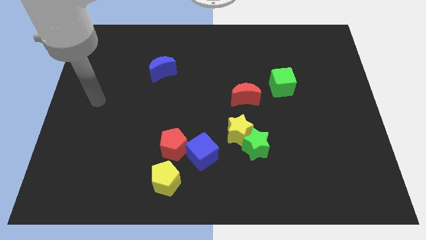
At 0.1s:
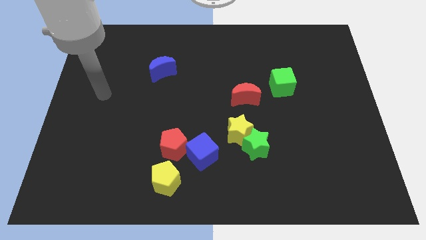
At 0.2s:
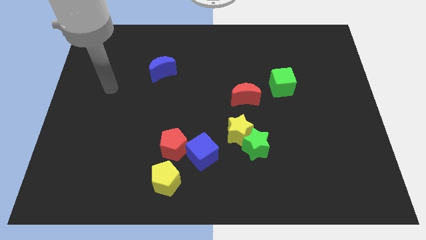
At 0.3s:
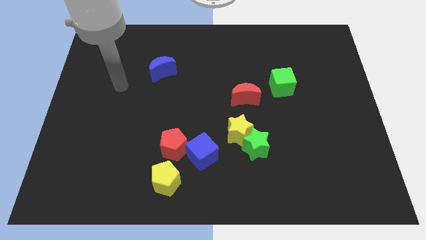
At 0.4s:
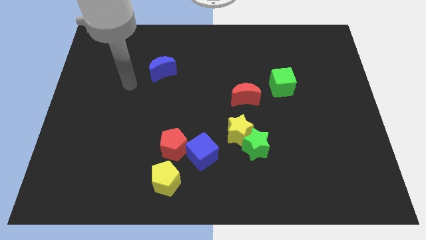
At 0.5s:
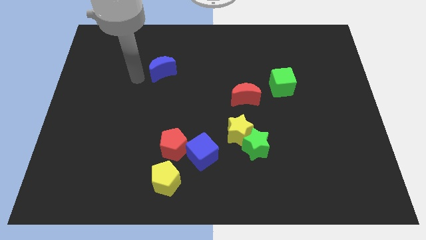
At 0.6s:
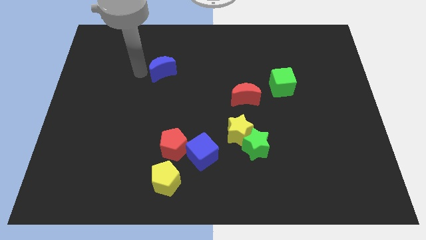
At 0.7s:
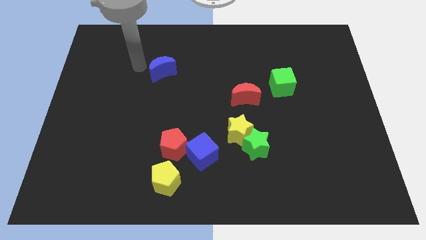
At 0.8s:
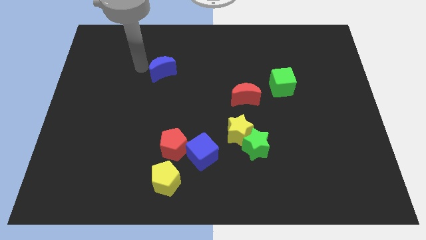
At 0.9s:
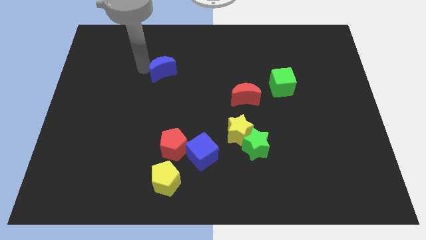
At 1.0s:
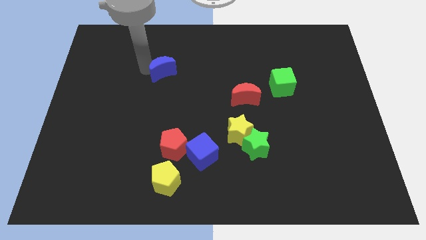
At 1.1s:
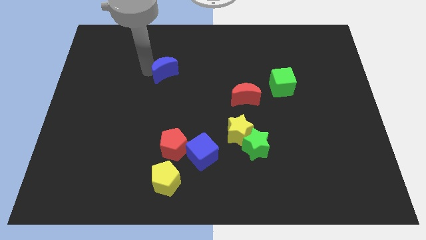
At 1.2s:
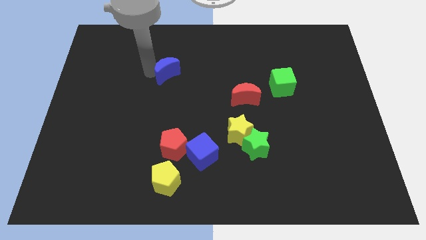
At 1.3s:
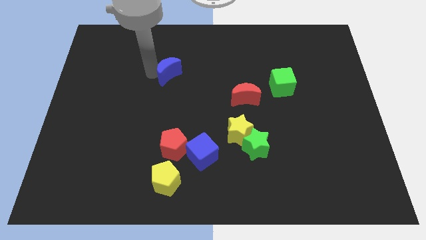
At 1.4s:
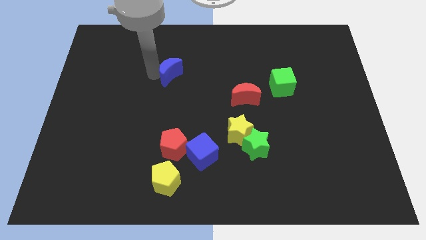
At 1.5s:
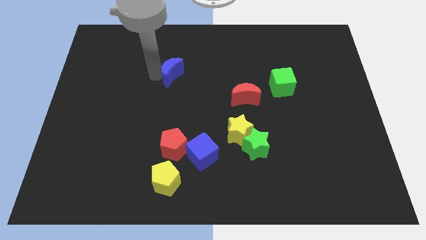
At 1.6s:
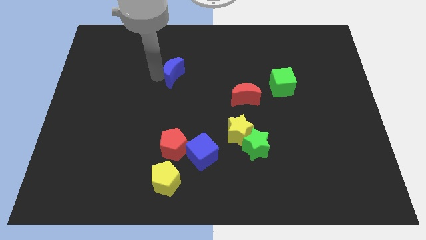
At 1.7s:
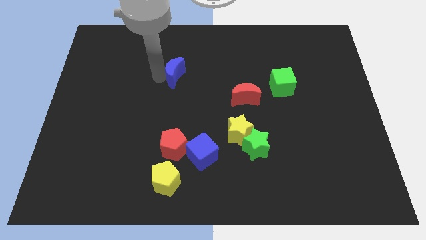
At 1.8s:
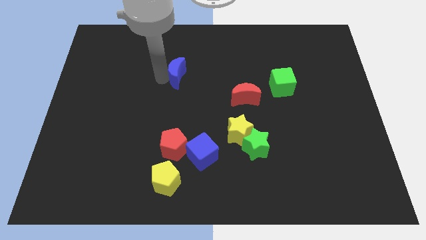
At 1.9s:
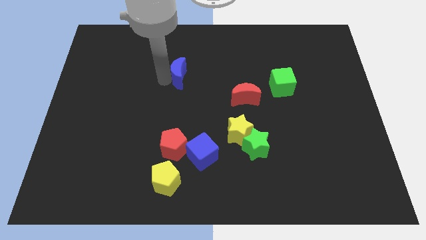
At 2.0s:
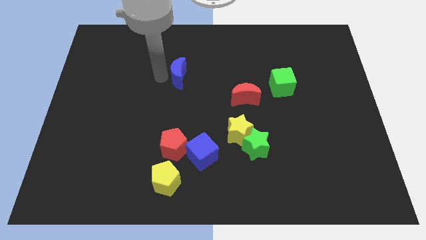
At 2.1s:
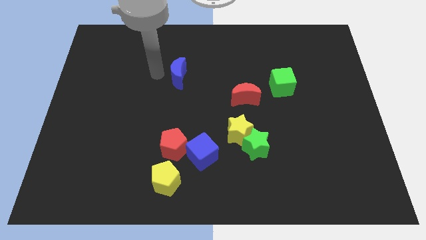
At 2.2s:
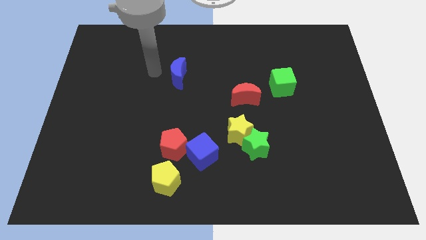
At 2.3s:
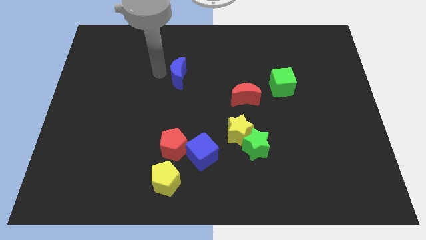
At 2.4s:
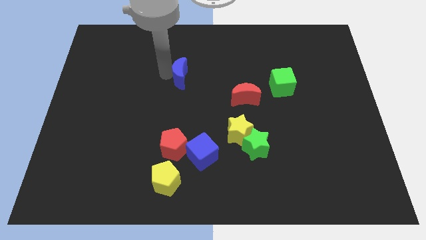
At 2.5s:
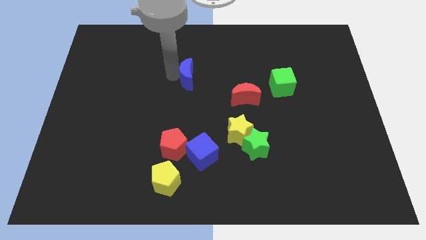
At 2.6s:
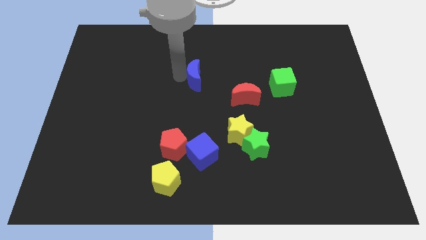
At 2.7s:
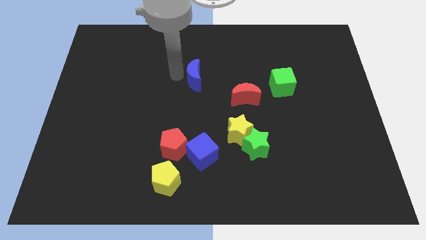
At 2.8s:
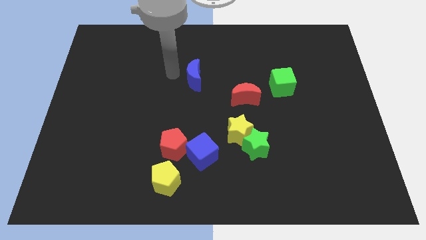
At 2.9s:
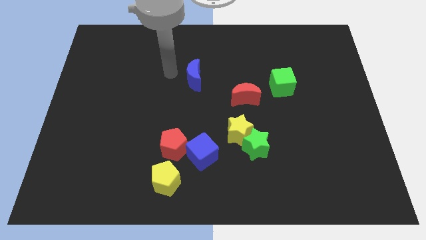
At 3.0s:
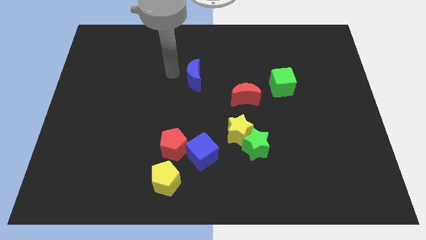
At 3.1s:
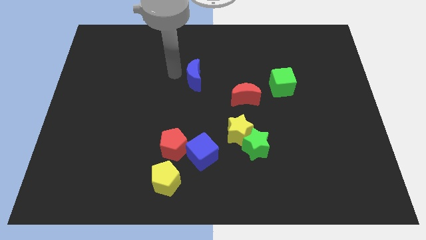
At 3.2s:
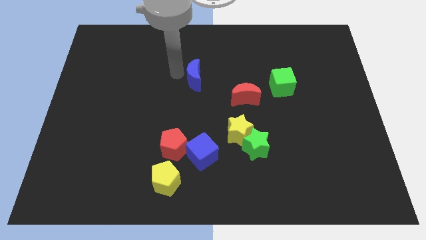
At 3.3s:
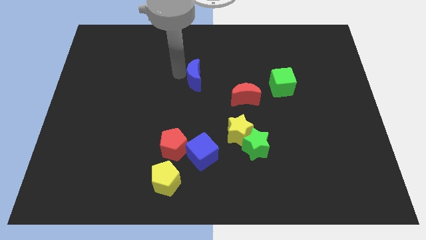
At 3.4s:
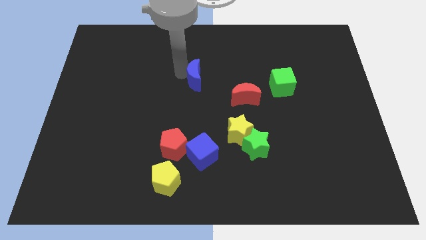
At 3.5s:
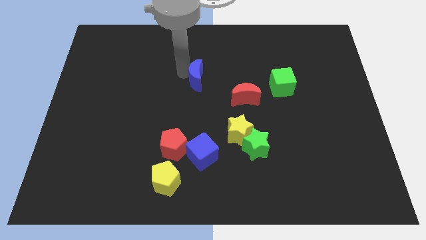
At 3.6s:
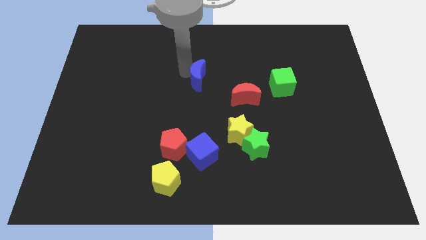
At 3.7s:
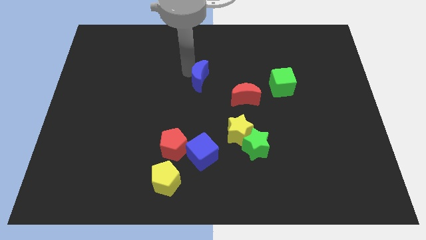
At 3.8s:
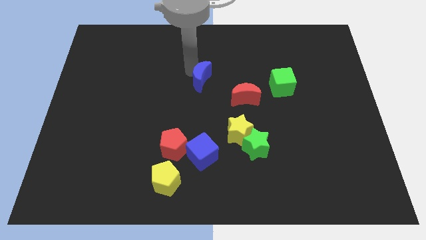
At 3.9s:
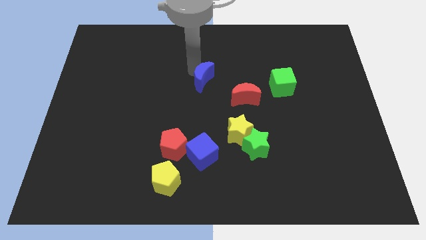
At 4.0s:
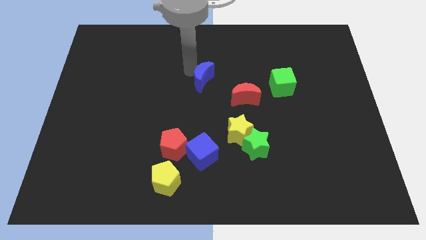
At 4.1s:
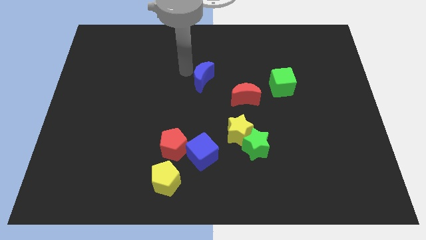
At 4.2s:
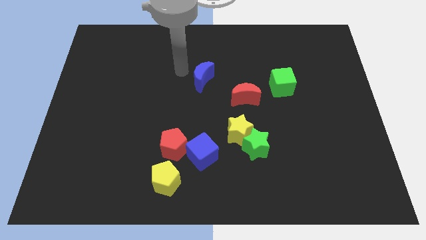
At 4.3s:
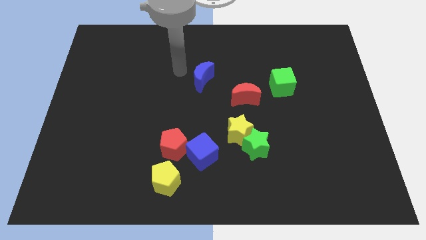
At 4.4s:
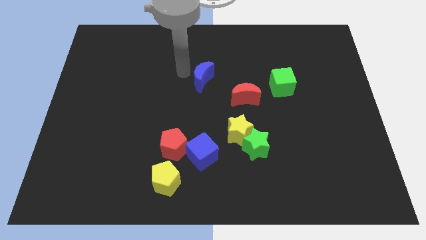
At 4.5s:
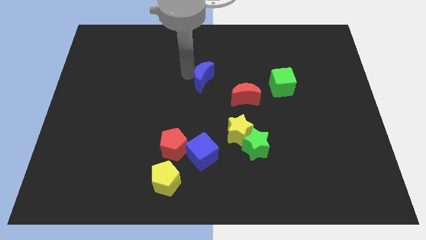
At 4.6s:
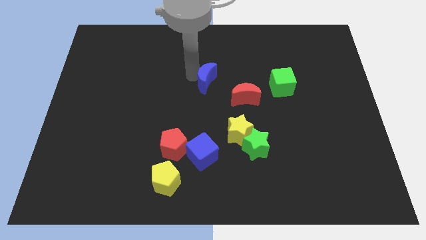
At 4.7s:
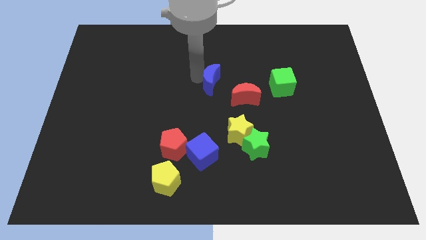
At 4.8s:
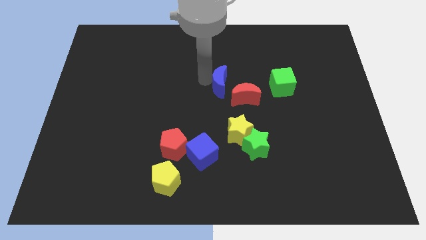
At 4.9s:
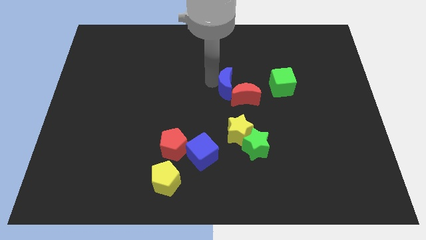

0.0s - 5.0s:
move the blue moon towards the red moon

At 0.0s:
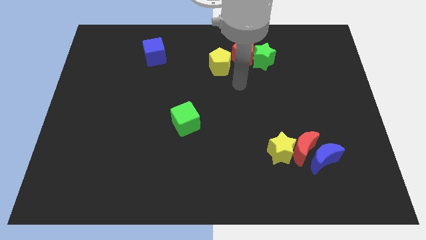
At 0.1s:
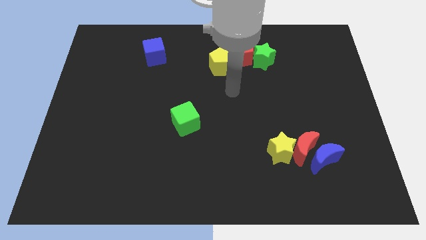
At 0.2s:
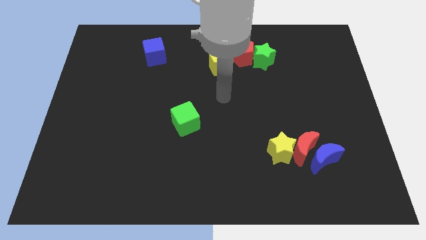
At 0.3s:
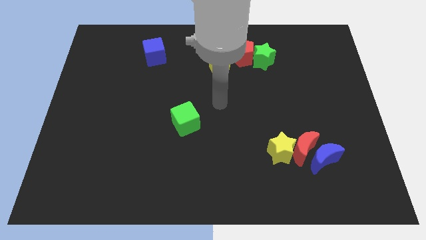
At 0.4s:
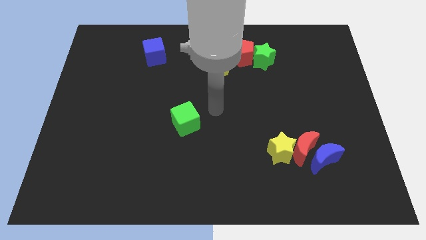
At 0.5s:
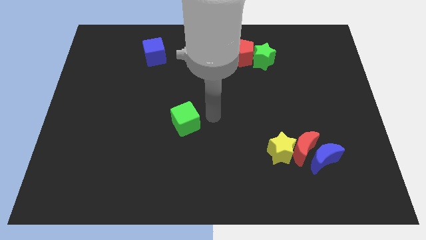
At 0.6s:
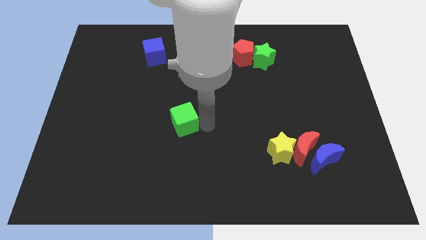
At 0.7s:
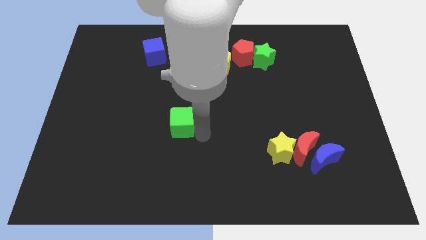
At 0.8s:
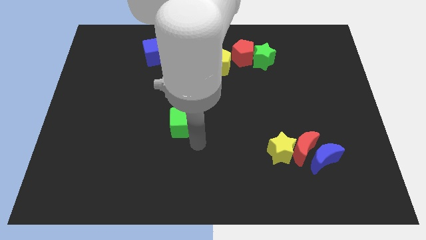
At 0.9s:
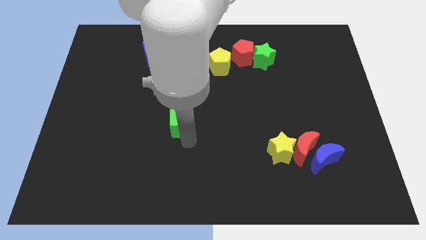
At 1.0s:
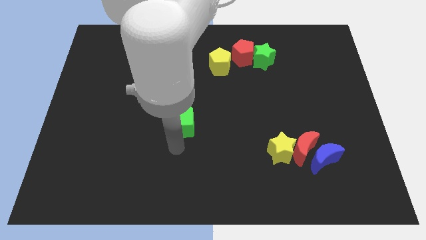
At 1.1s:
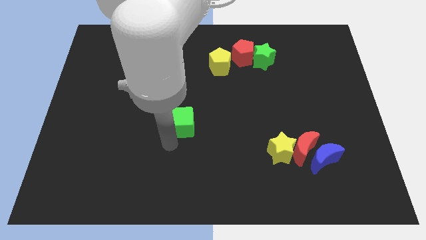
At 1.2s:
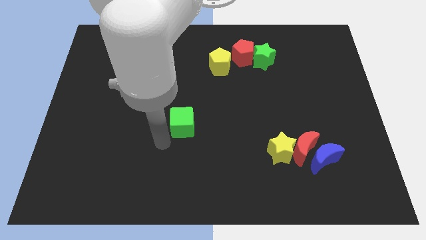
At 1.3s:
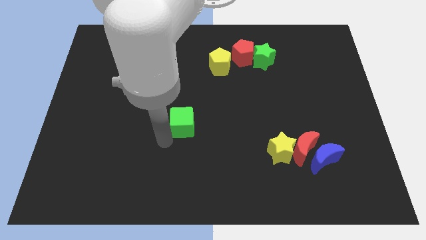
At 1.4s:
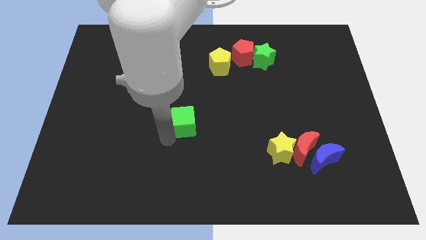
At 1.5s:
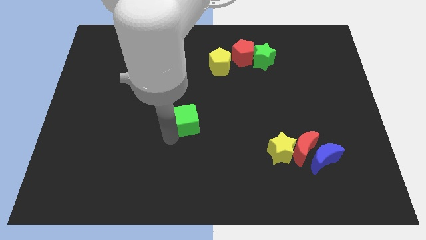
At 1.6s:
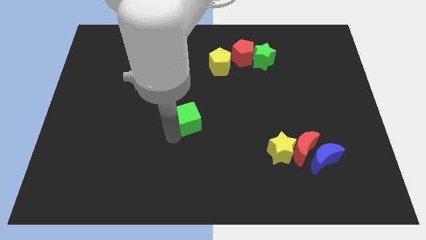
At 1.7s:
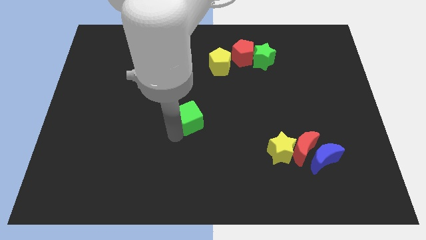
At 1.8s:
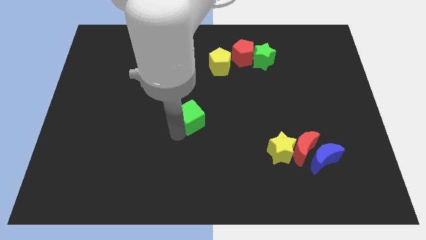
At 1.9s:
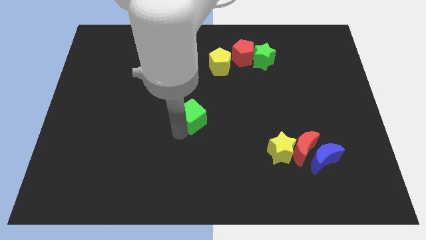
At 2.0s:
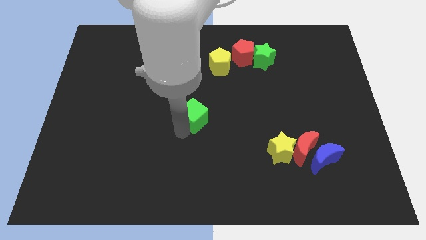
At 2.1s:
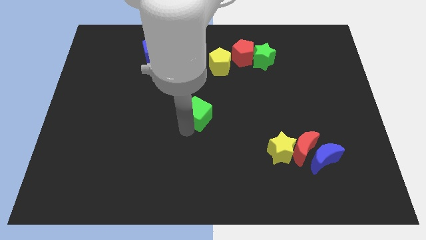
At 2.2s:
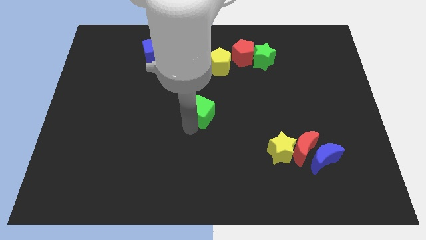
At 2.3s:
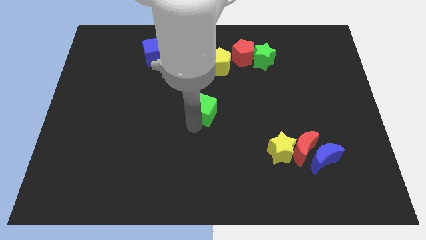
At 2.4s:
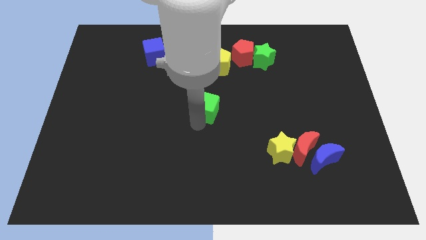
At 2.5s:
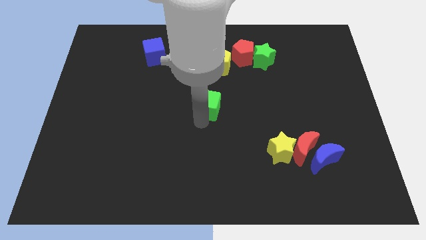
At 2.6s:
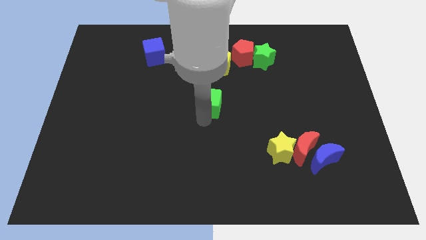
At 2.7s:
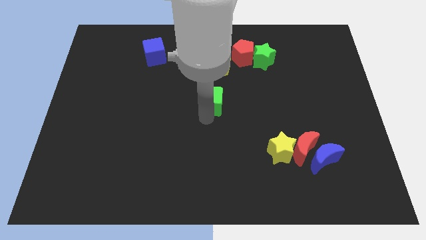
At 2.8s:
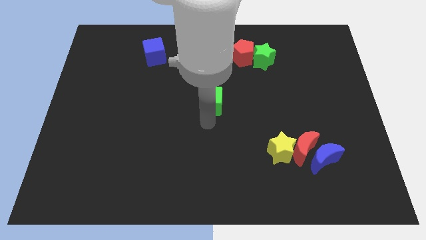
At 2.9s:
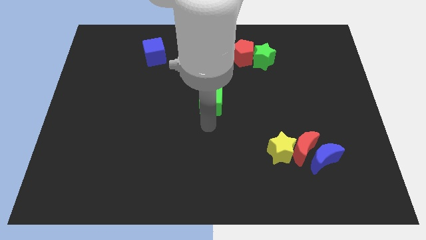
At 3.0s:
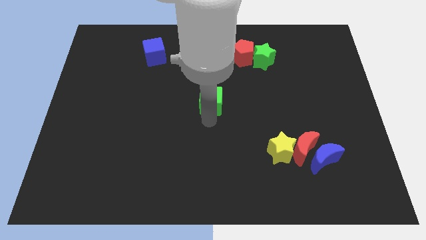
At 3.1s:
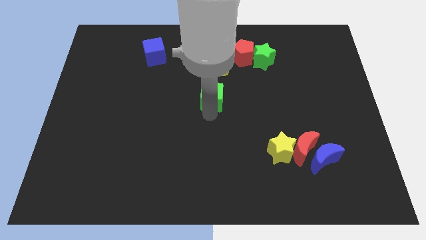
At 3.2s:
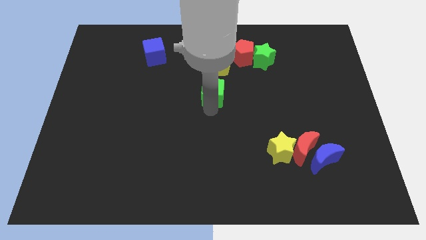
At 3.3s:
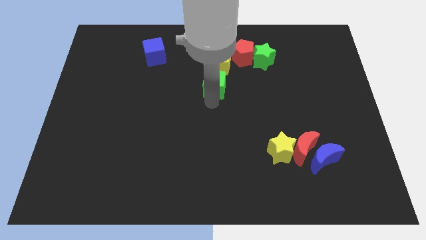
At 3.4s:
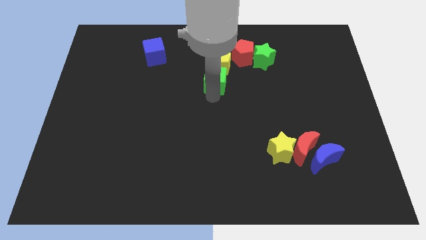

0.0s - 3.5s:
move the green cube close to the yellow pentagon
